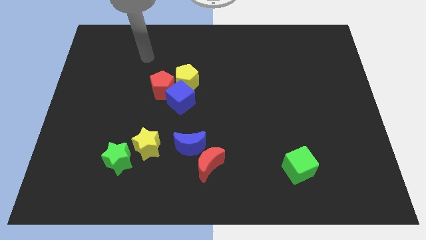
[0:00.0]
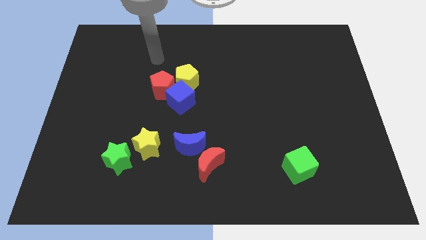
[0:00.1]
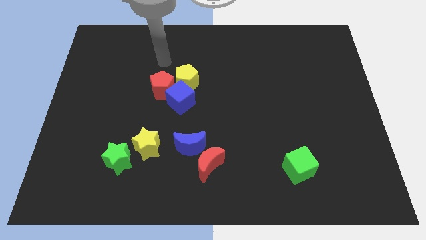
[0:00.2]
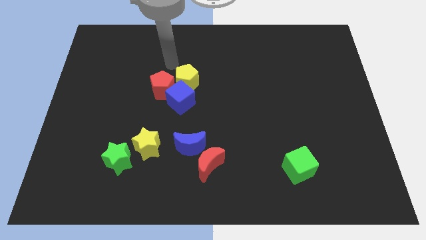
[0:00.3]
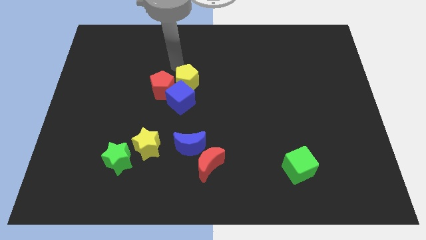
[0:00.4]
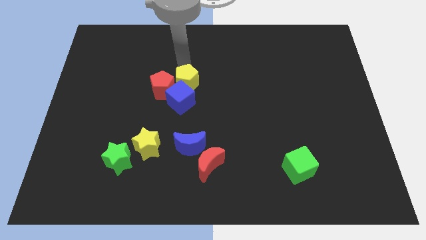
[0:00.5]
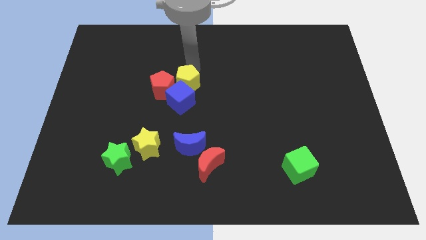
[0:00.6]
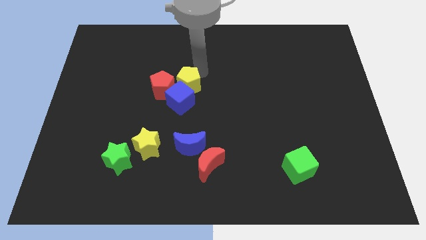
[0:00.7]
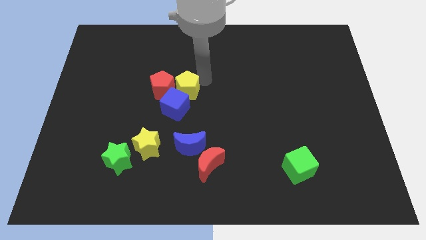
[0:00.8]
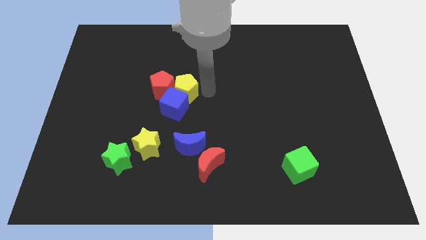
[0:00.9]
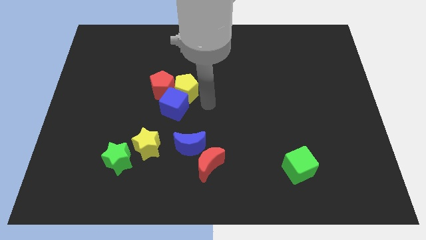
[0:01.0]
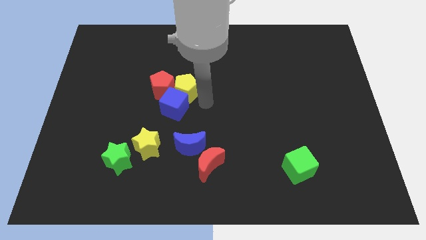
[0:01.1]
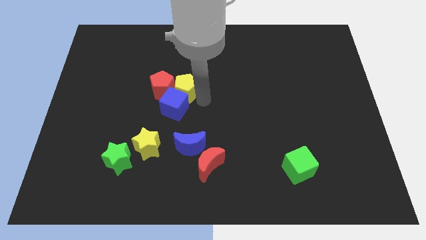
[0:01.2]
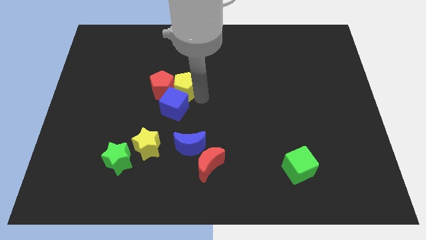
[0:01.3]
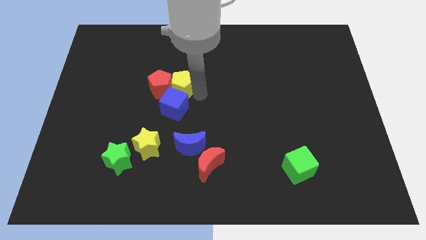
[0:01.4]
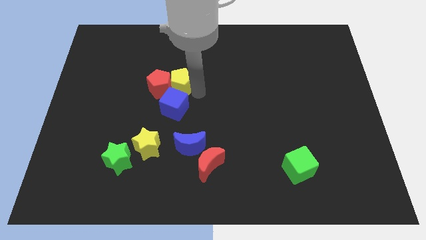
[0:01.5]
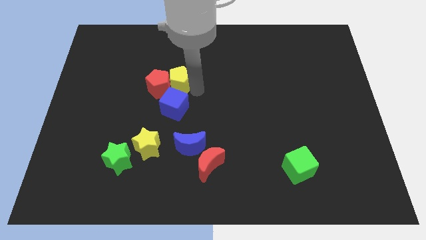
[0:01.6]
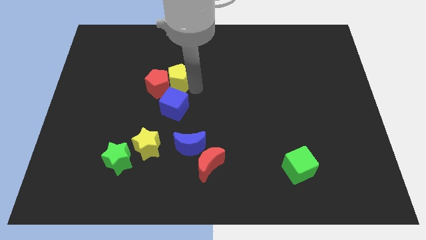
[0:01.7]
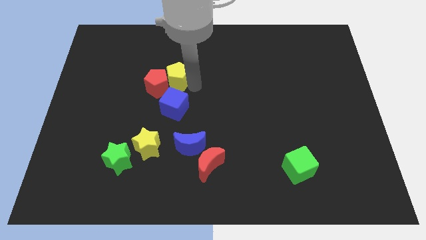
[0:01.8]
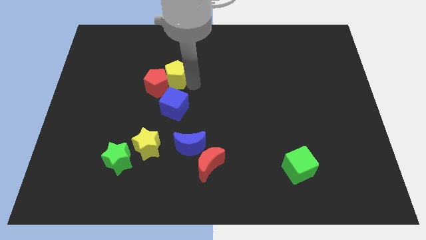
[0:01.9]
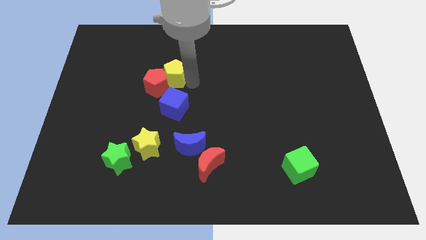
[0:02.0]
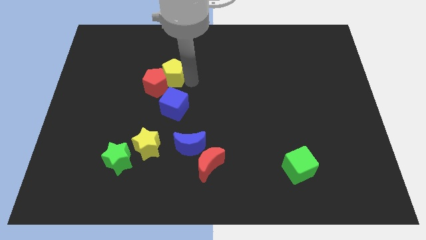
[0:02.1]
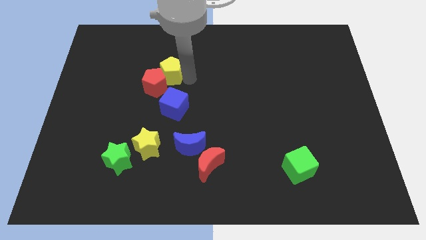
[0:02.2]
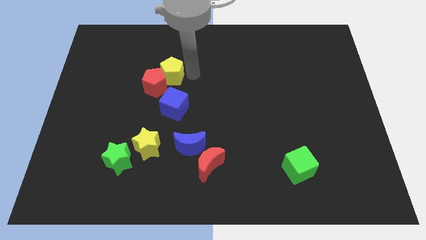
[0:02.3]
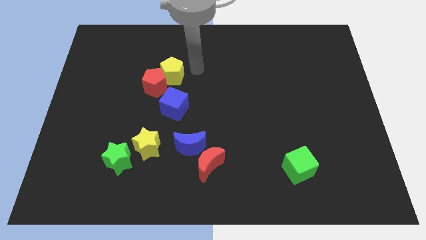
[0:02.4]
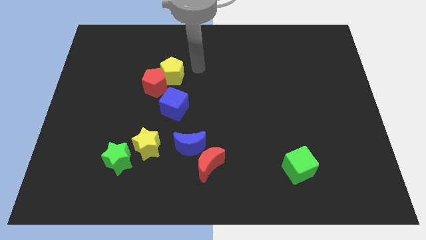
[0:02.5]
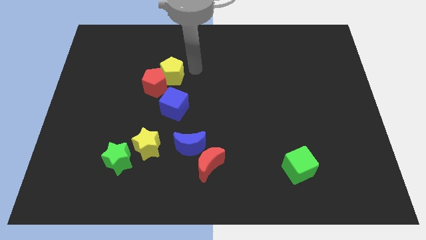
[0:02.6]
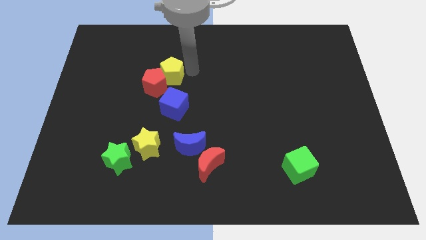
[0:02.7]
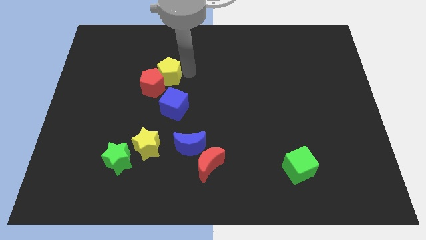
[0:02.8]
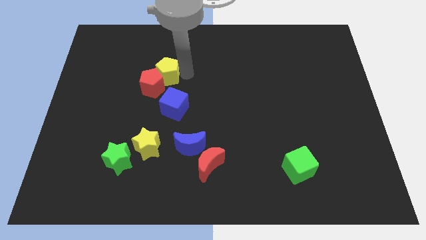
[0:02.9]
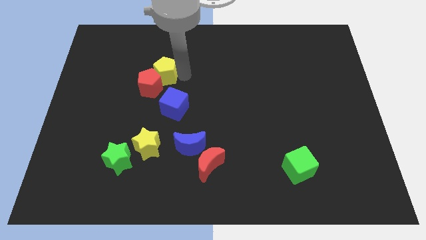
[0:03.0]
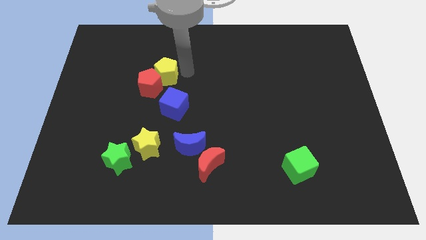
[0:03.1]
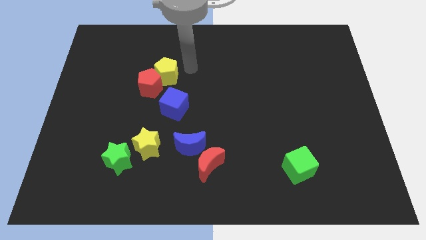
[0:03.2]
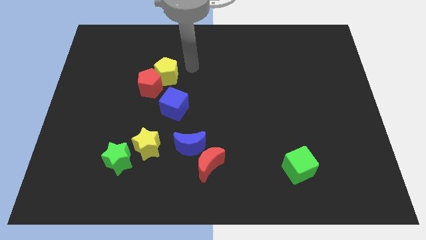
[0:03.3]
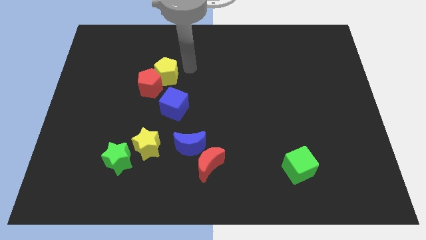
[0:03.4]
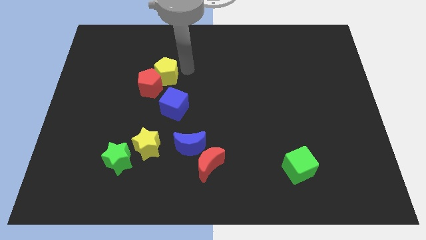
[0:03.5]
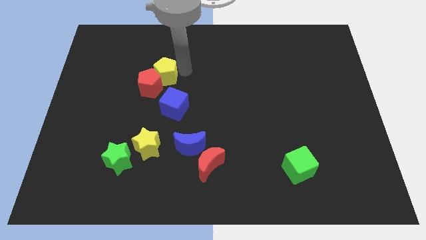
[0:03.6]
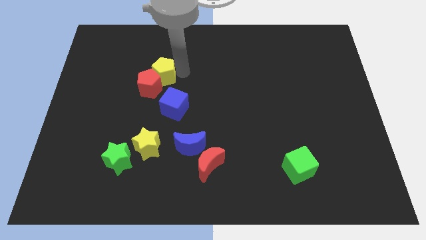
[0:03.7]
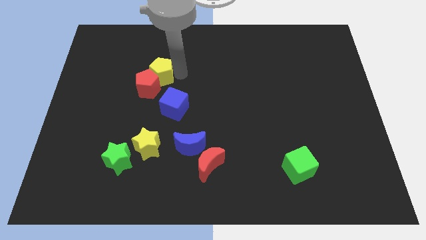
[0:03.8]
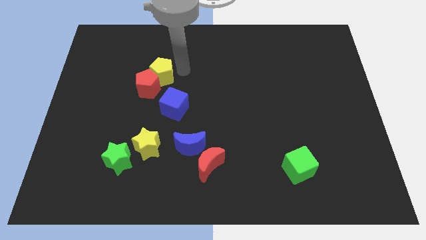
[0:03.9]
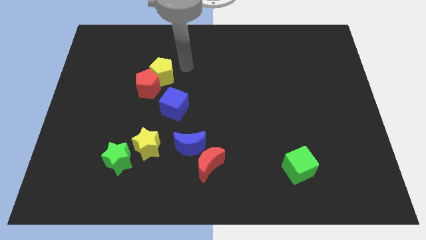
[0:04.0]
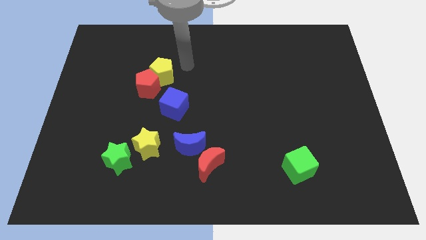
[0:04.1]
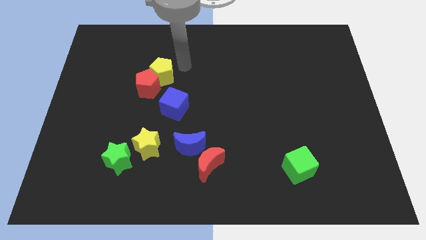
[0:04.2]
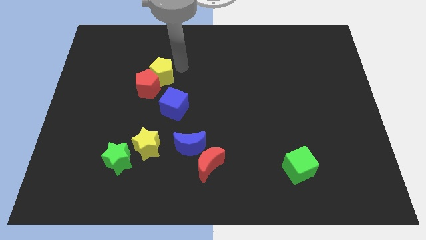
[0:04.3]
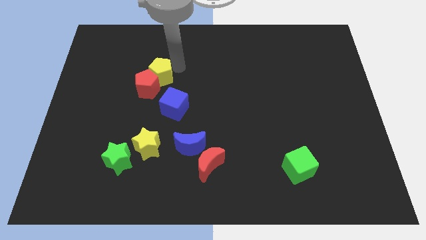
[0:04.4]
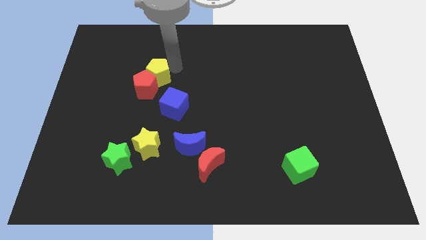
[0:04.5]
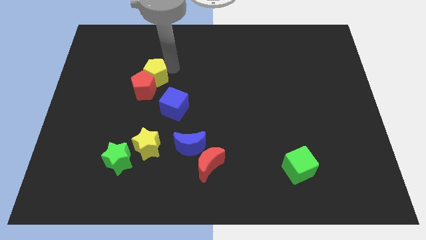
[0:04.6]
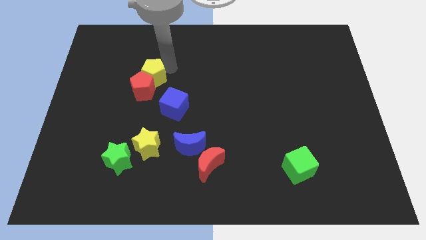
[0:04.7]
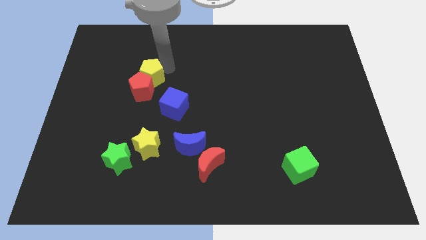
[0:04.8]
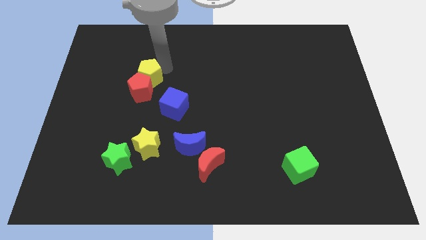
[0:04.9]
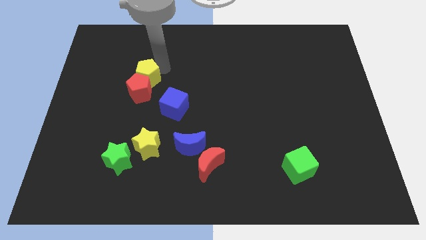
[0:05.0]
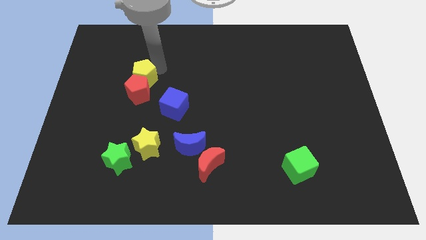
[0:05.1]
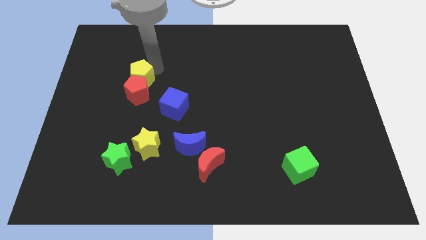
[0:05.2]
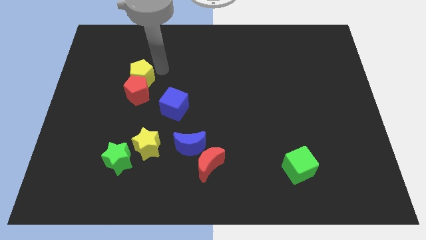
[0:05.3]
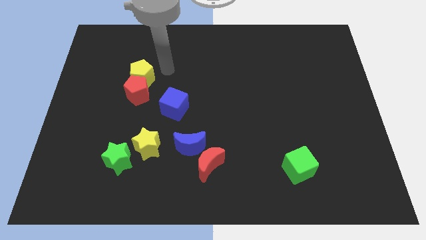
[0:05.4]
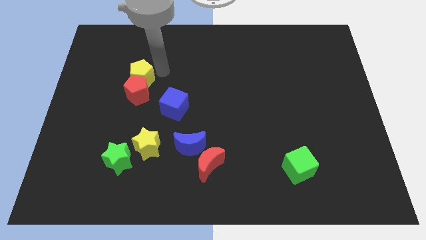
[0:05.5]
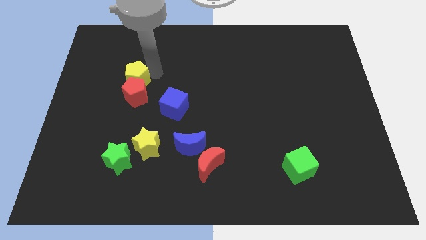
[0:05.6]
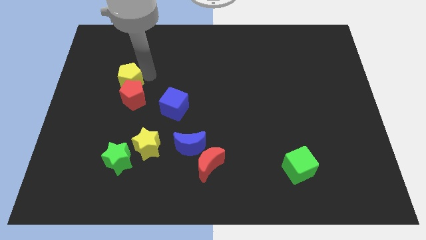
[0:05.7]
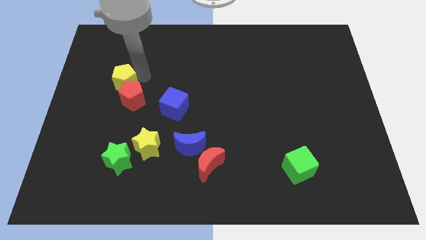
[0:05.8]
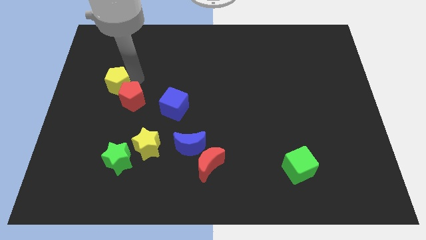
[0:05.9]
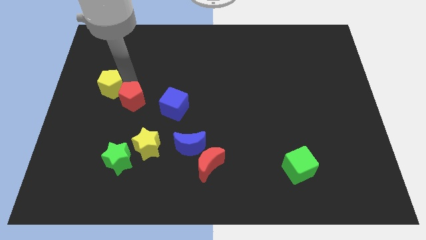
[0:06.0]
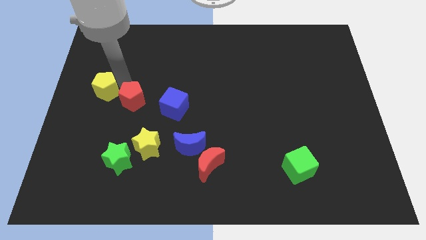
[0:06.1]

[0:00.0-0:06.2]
push the yellow pentagon to the left side
